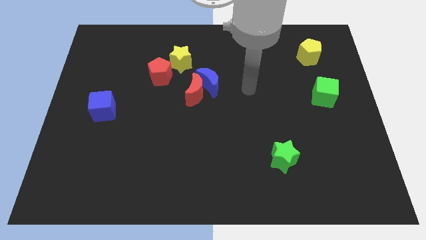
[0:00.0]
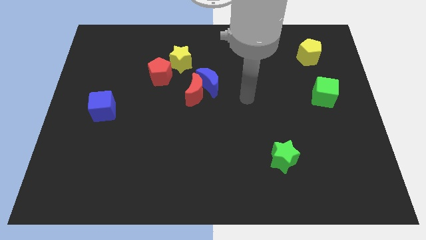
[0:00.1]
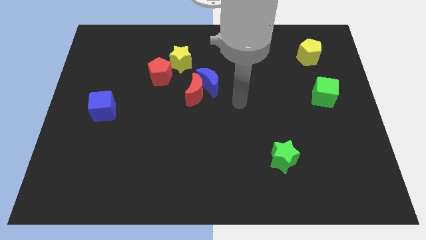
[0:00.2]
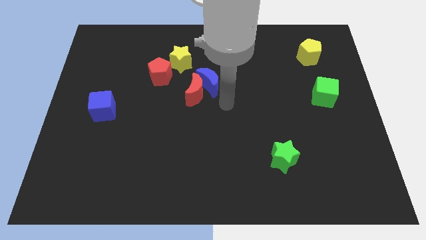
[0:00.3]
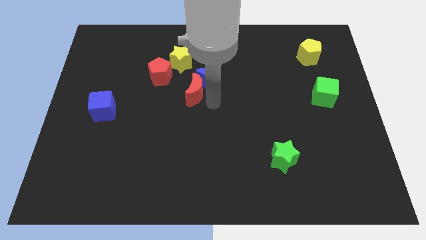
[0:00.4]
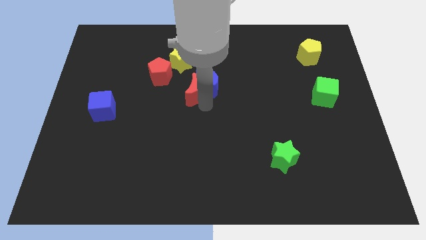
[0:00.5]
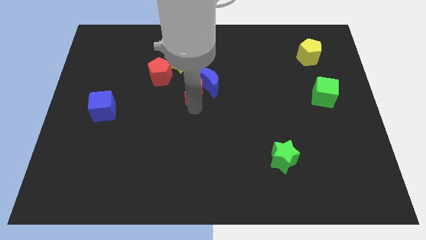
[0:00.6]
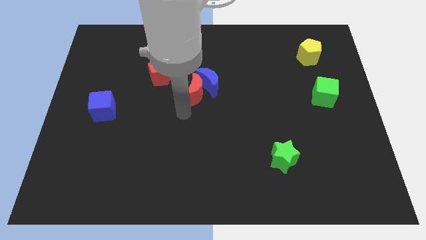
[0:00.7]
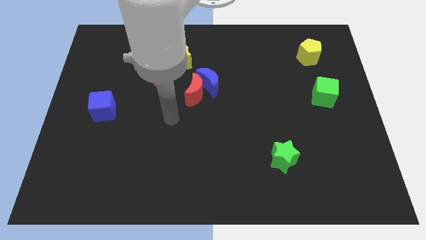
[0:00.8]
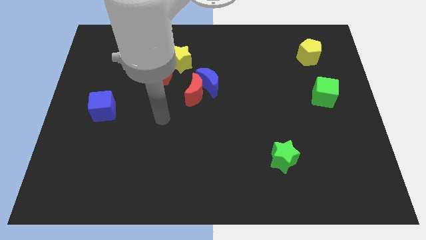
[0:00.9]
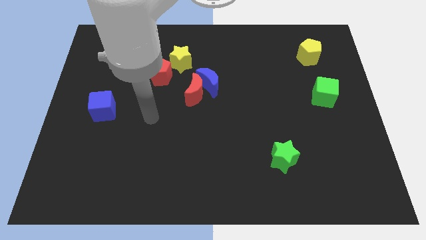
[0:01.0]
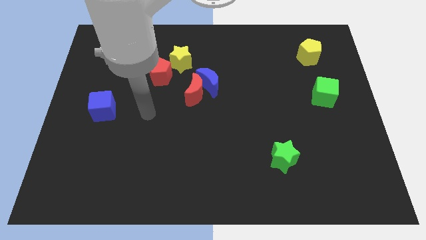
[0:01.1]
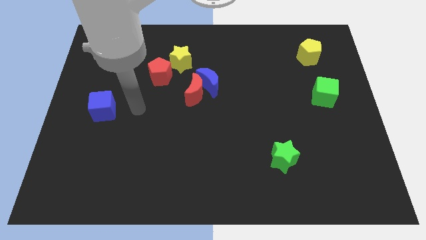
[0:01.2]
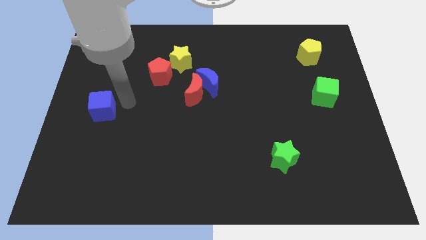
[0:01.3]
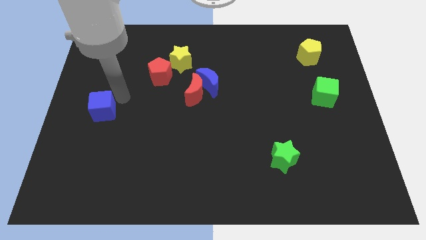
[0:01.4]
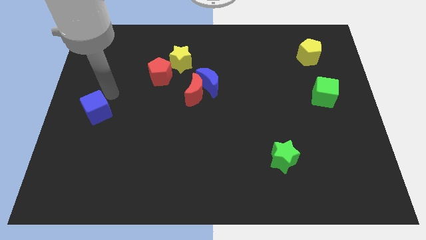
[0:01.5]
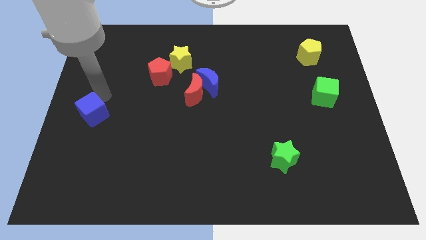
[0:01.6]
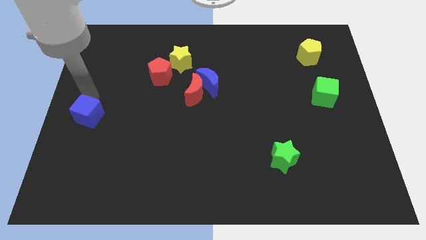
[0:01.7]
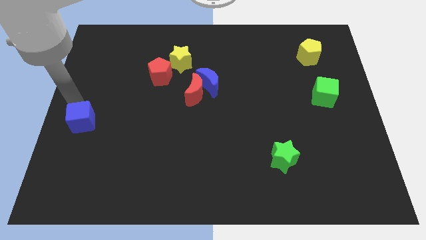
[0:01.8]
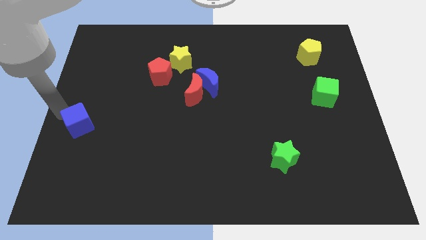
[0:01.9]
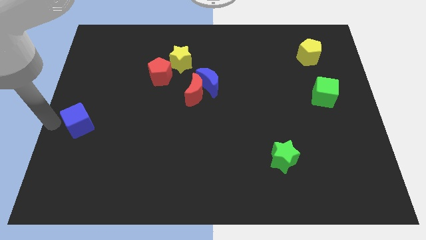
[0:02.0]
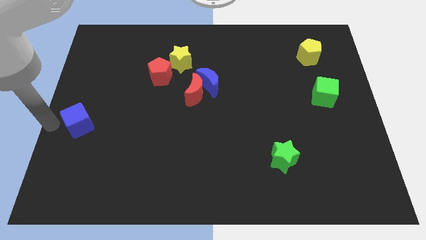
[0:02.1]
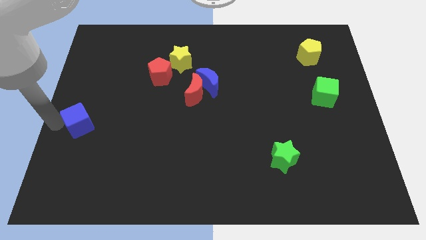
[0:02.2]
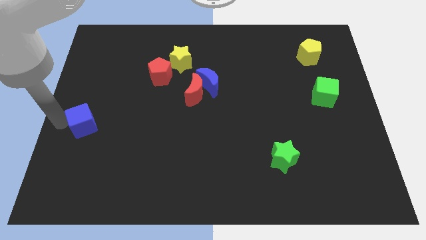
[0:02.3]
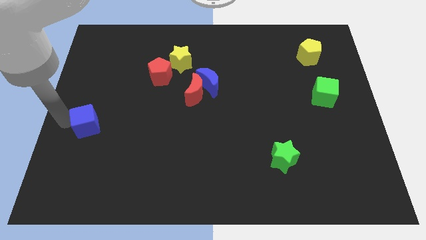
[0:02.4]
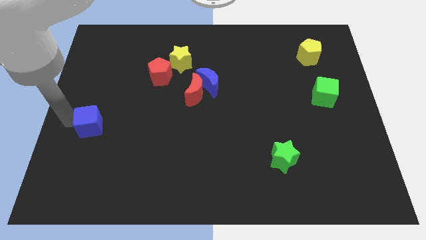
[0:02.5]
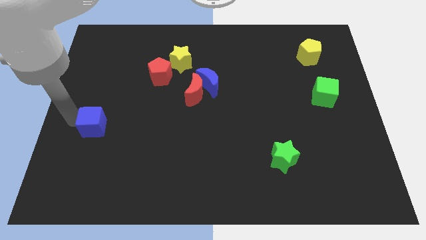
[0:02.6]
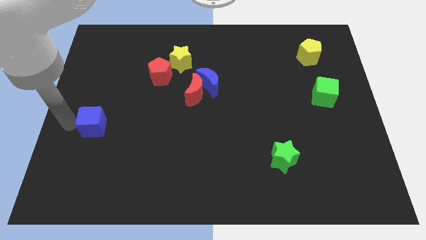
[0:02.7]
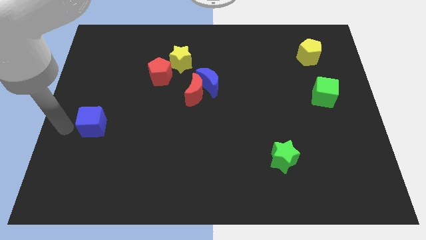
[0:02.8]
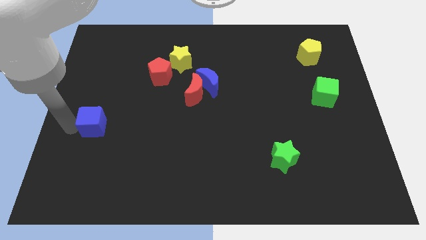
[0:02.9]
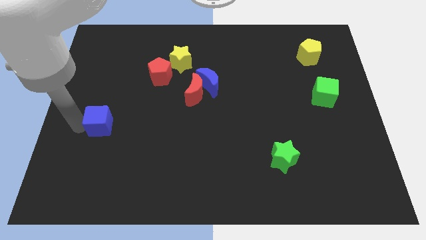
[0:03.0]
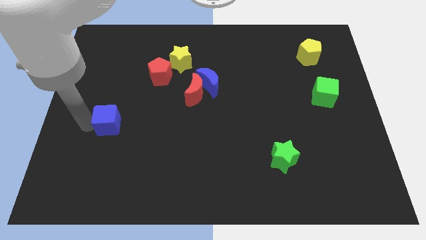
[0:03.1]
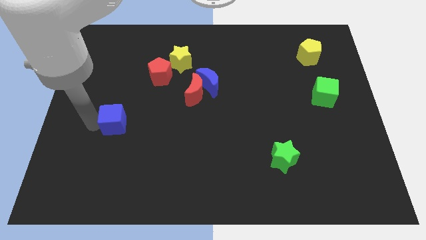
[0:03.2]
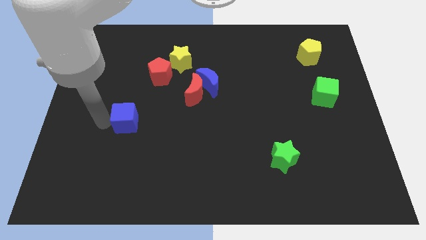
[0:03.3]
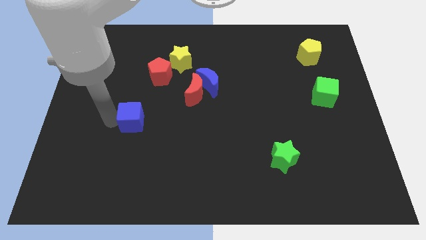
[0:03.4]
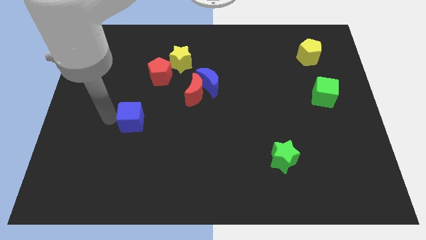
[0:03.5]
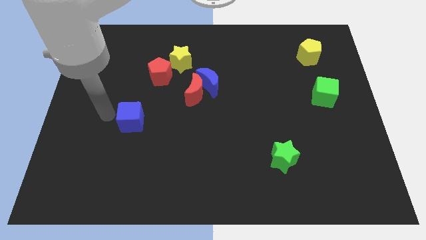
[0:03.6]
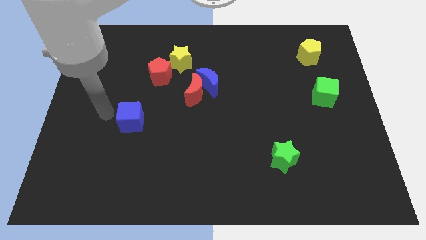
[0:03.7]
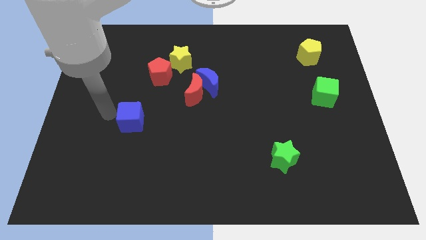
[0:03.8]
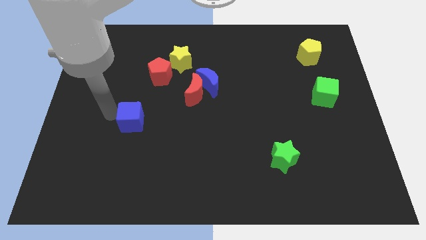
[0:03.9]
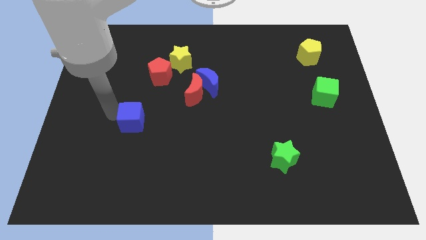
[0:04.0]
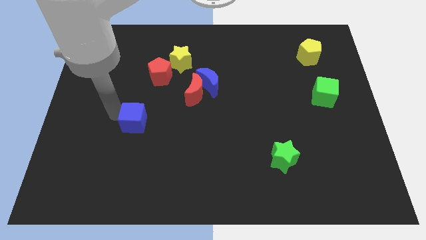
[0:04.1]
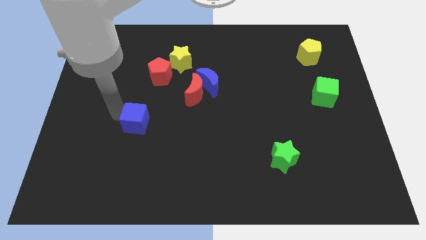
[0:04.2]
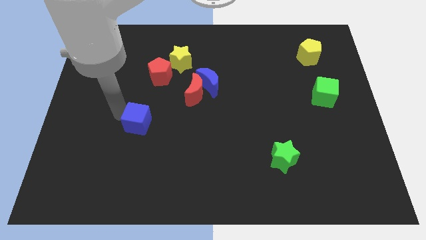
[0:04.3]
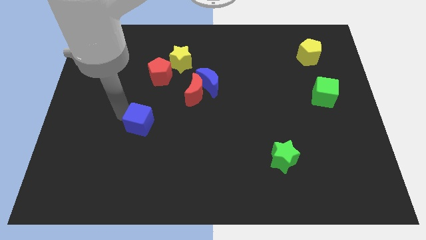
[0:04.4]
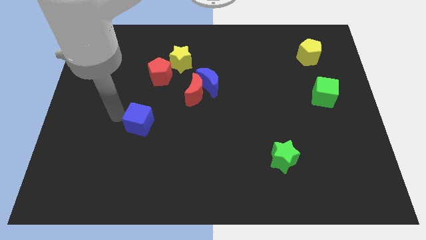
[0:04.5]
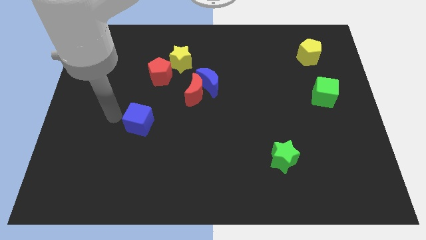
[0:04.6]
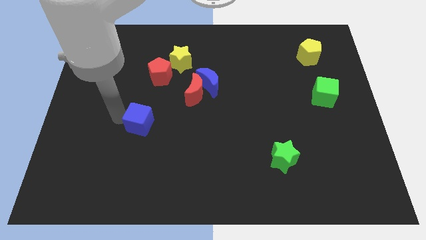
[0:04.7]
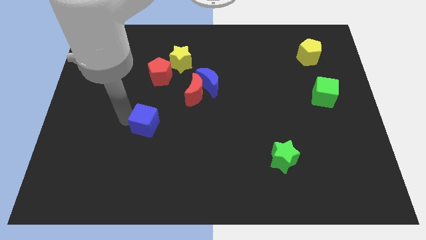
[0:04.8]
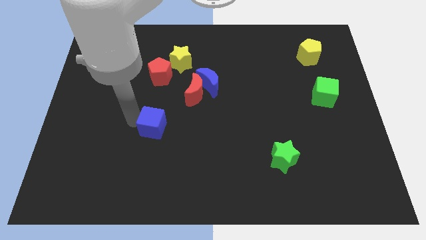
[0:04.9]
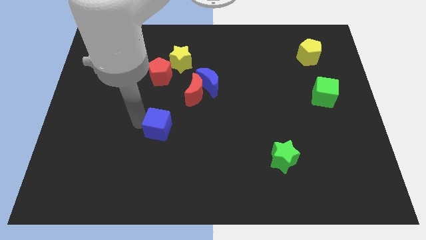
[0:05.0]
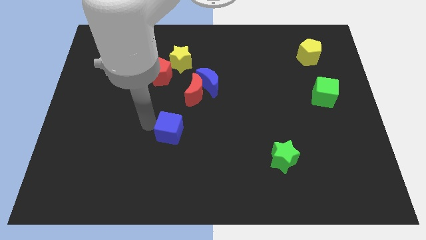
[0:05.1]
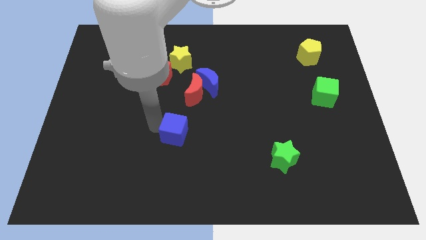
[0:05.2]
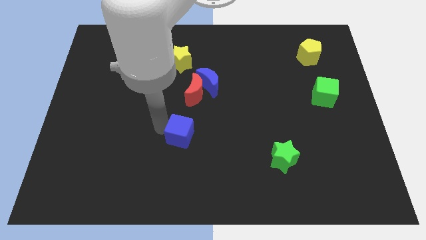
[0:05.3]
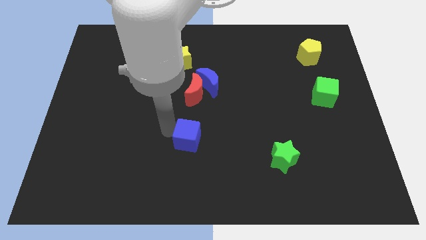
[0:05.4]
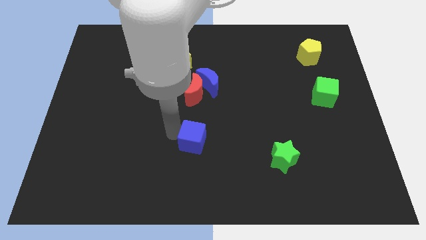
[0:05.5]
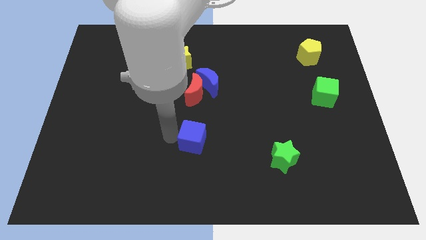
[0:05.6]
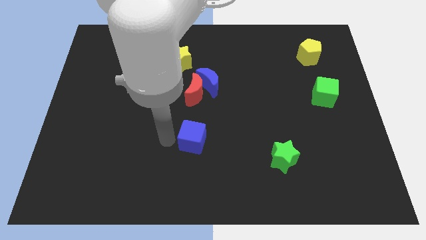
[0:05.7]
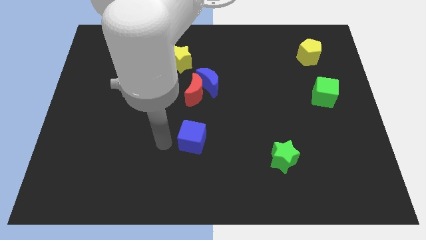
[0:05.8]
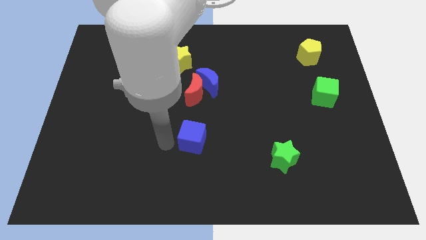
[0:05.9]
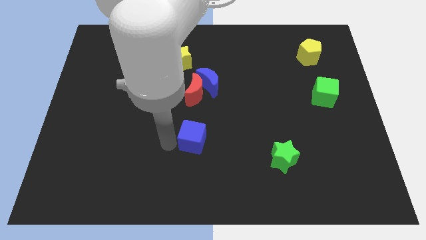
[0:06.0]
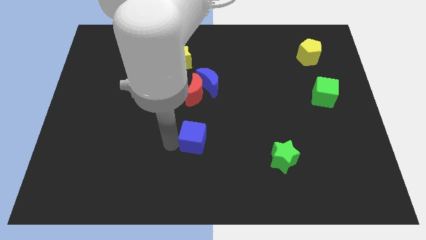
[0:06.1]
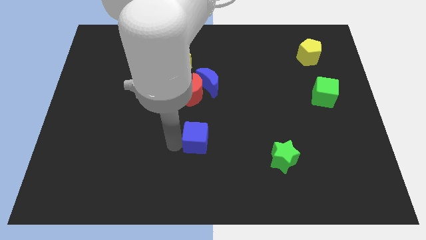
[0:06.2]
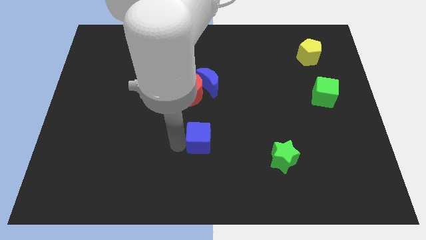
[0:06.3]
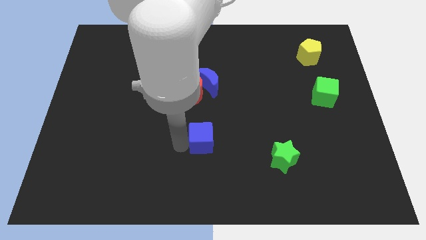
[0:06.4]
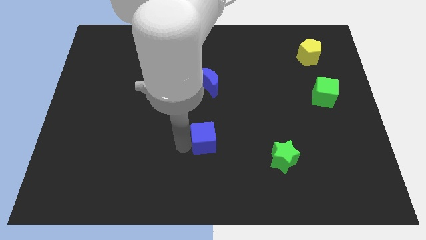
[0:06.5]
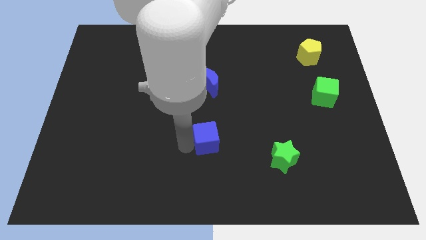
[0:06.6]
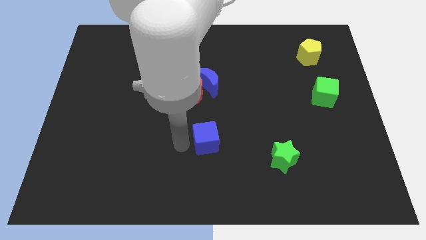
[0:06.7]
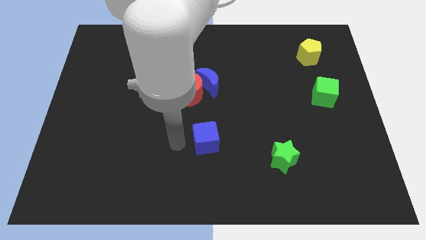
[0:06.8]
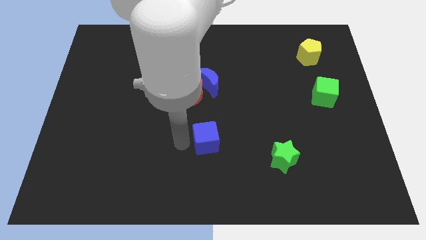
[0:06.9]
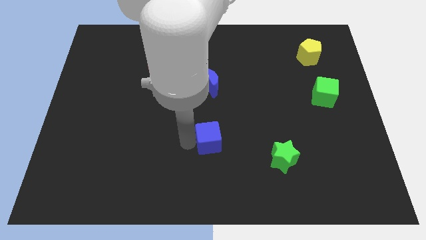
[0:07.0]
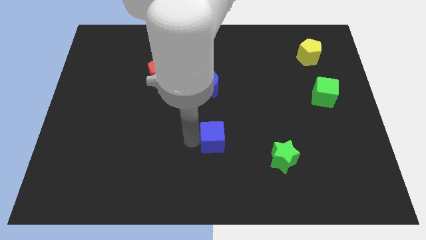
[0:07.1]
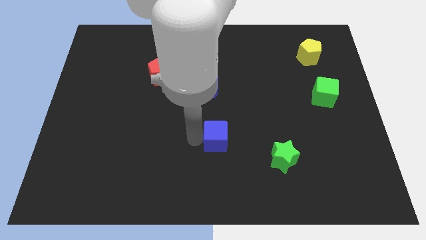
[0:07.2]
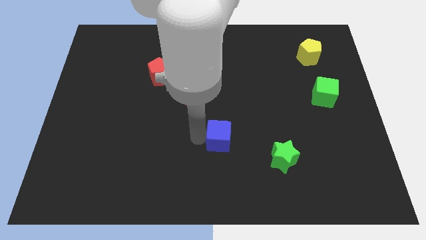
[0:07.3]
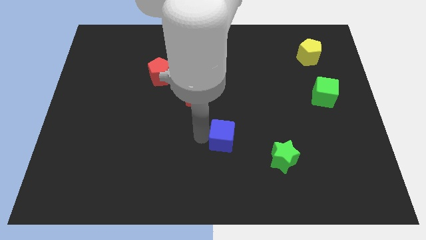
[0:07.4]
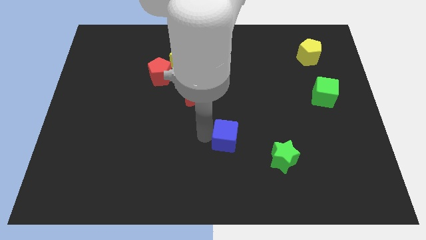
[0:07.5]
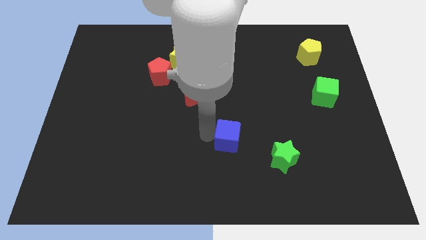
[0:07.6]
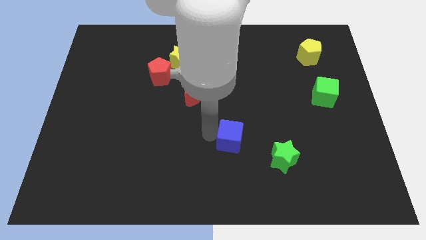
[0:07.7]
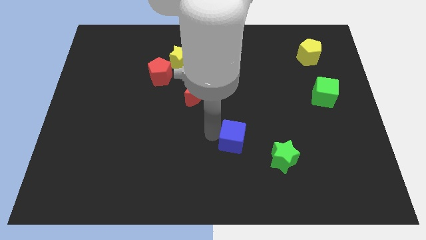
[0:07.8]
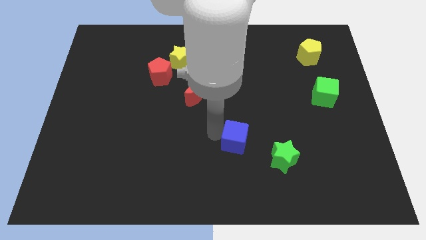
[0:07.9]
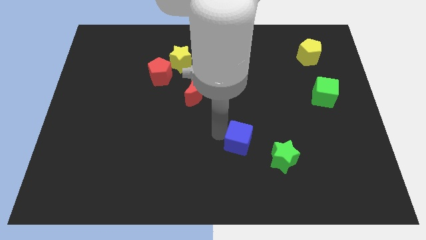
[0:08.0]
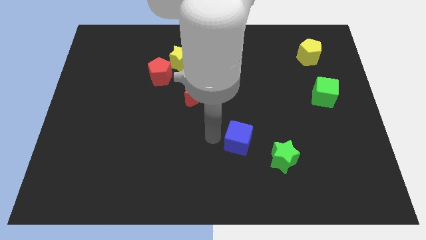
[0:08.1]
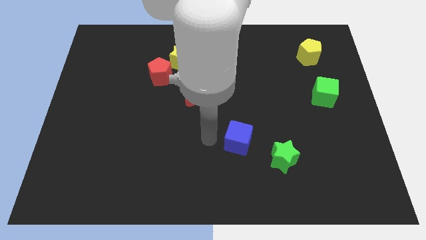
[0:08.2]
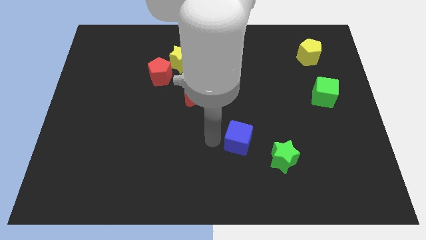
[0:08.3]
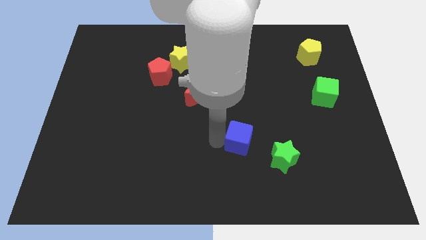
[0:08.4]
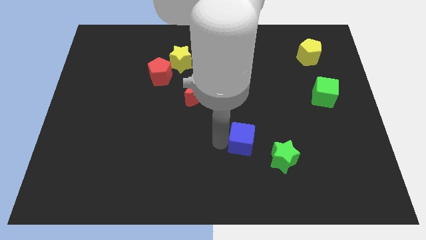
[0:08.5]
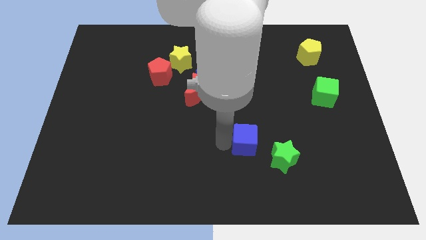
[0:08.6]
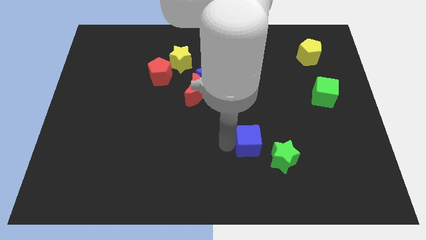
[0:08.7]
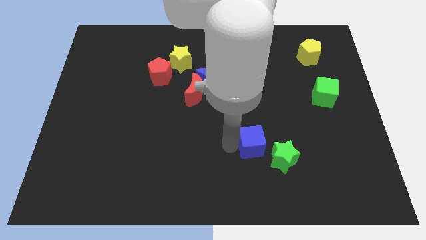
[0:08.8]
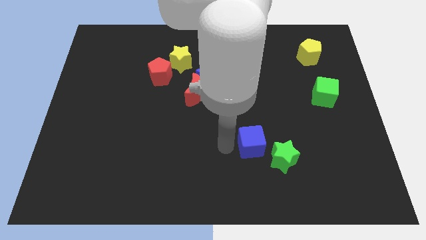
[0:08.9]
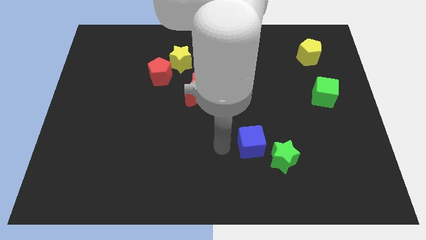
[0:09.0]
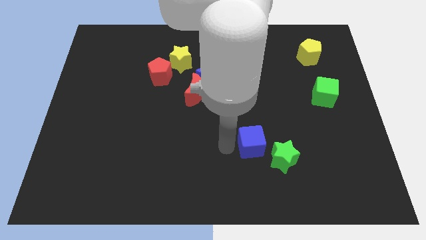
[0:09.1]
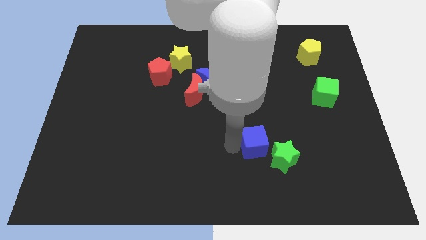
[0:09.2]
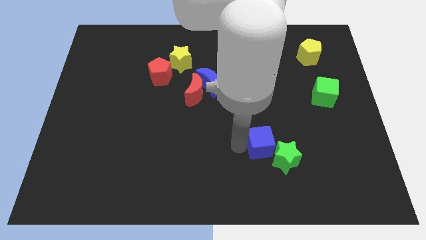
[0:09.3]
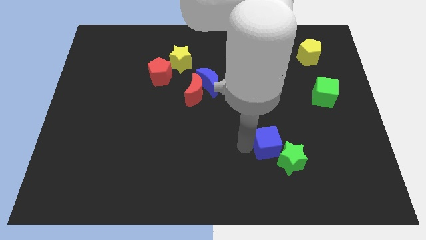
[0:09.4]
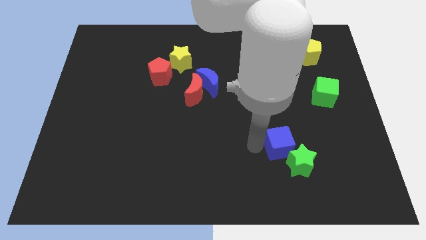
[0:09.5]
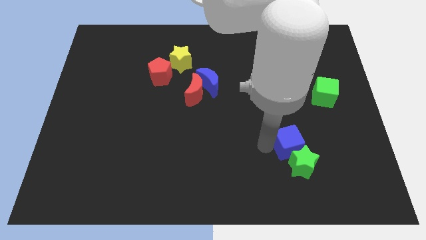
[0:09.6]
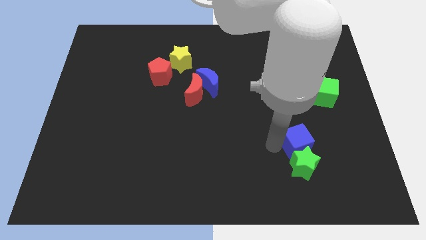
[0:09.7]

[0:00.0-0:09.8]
push the blue cube to the top right side of the green star
